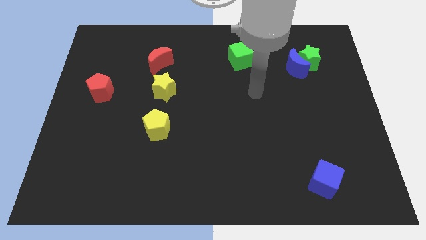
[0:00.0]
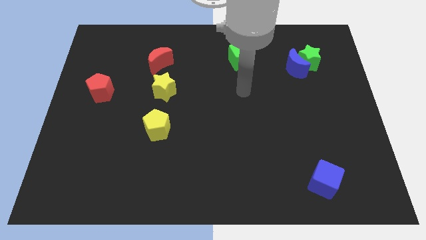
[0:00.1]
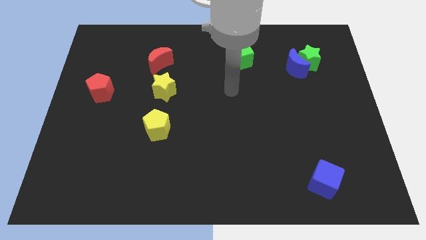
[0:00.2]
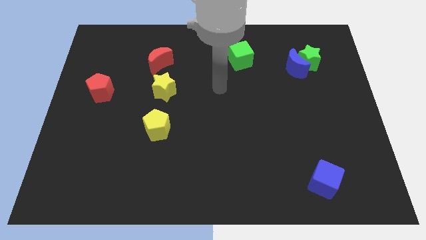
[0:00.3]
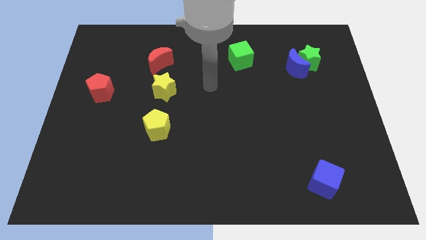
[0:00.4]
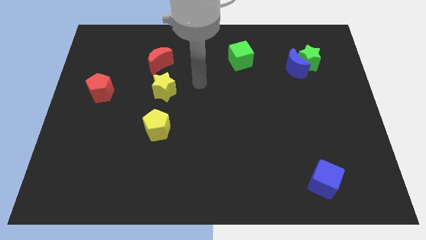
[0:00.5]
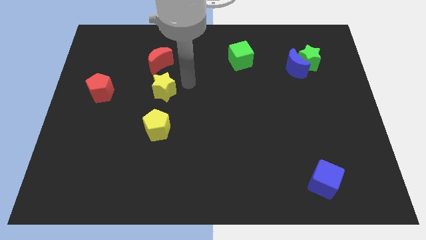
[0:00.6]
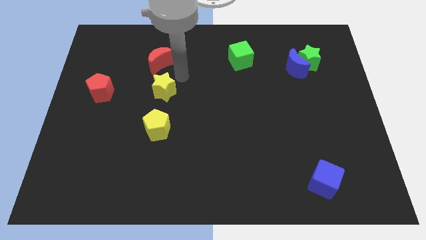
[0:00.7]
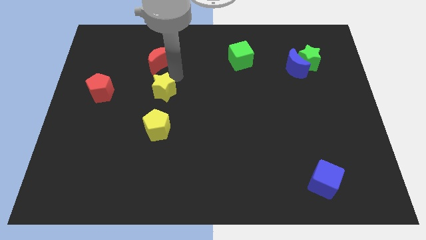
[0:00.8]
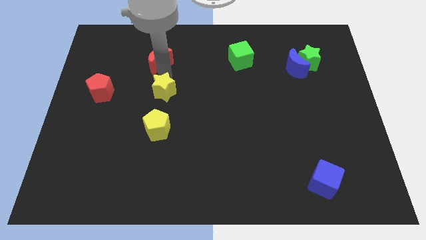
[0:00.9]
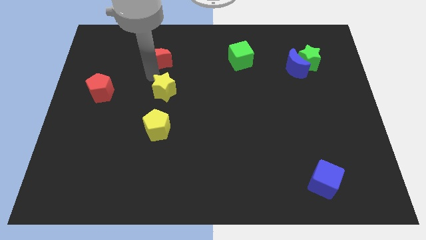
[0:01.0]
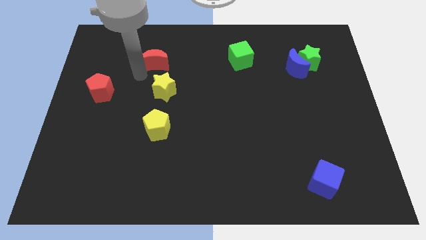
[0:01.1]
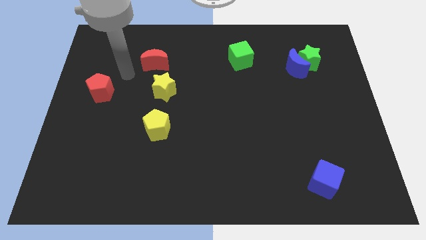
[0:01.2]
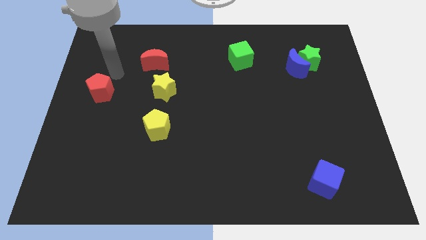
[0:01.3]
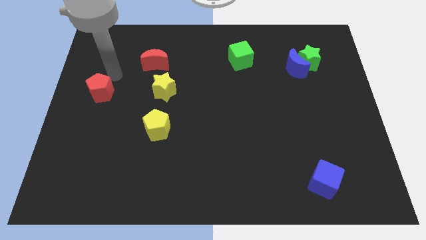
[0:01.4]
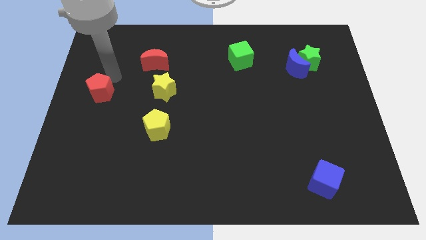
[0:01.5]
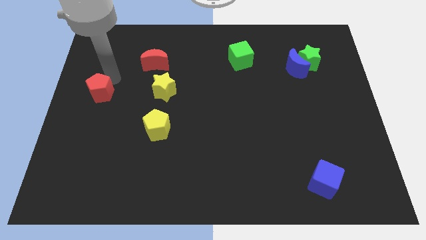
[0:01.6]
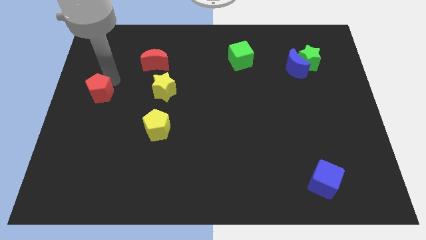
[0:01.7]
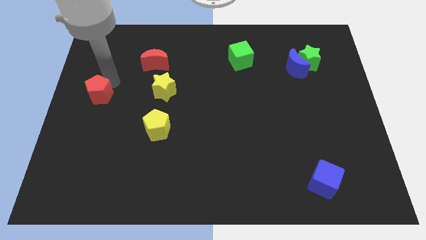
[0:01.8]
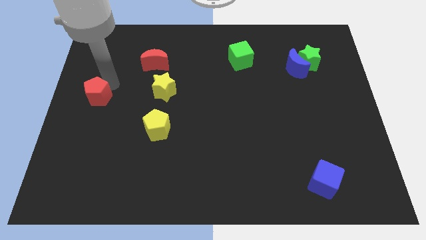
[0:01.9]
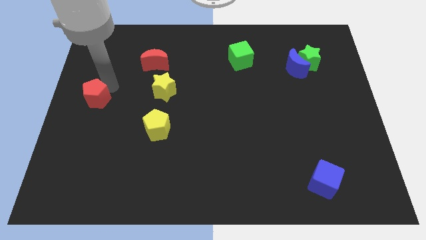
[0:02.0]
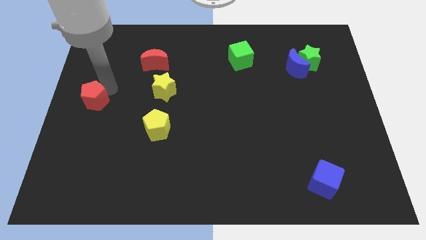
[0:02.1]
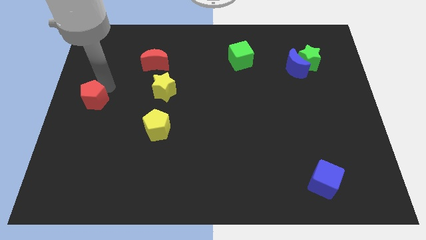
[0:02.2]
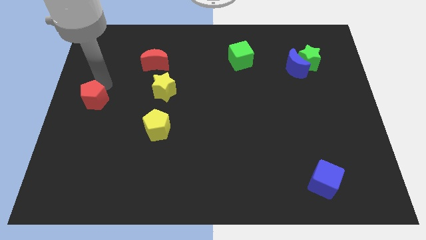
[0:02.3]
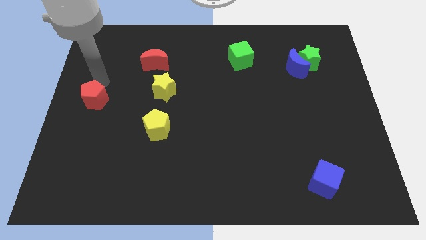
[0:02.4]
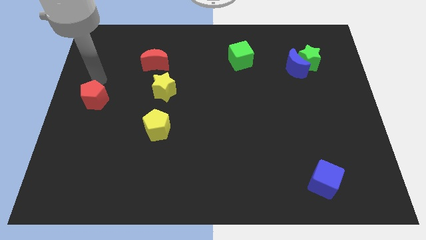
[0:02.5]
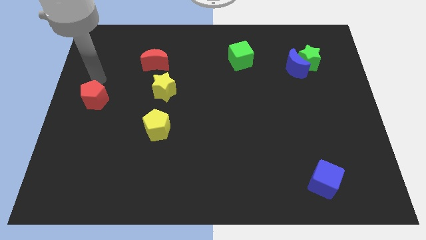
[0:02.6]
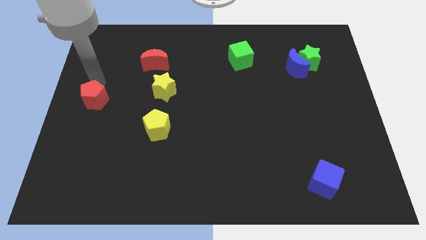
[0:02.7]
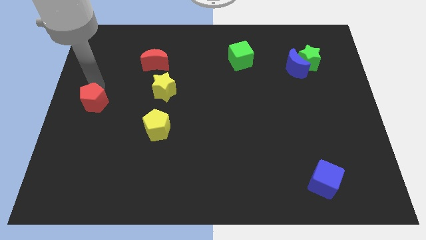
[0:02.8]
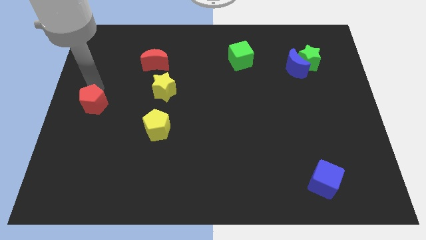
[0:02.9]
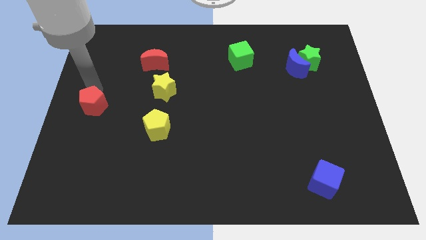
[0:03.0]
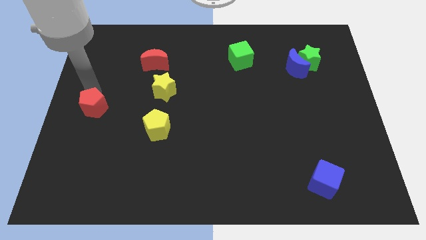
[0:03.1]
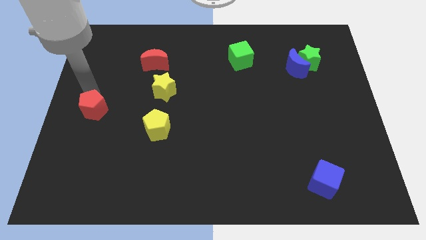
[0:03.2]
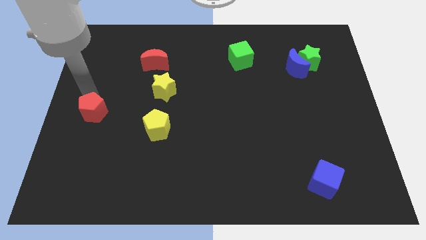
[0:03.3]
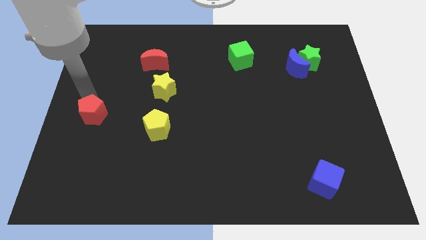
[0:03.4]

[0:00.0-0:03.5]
slightly push the red pentagon downwards

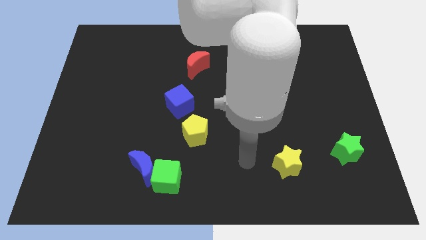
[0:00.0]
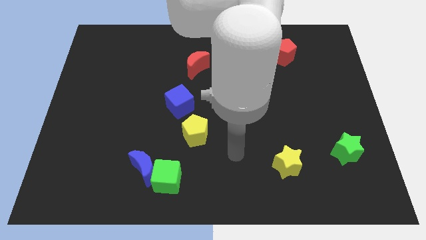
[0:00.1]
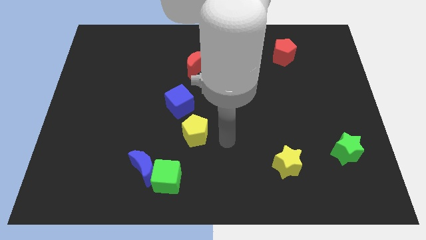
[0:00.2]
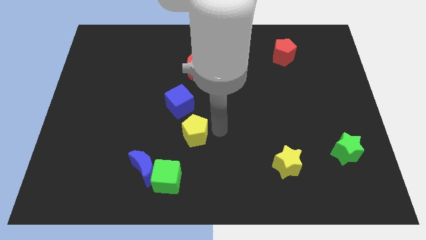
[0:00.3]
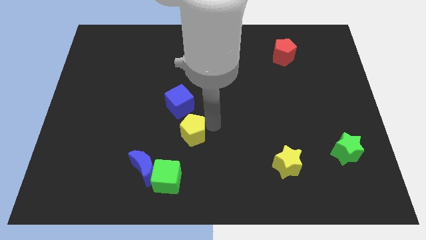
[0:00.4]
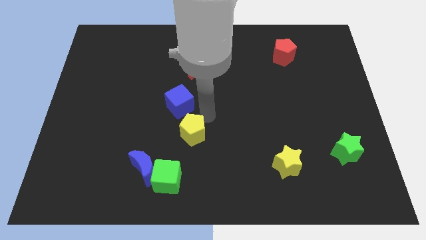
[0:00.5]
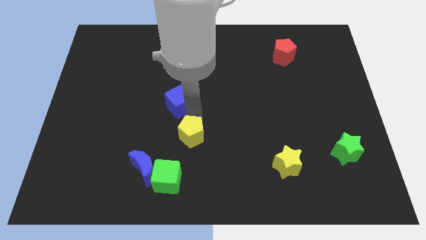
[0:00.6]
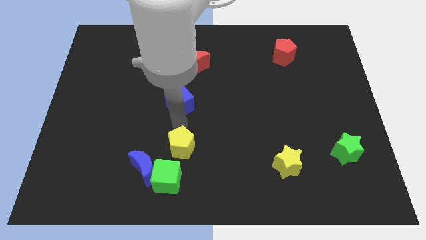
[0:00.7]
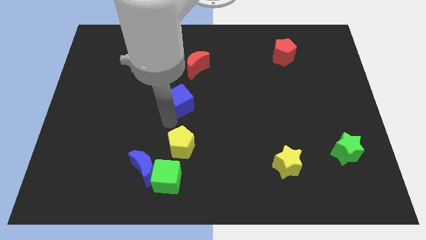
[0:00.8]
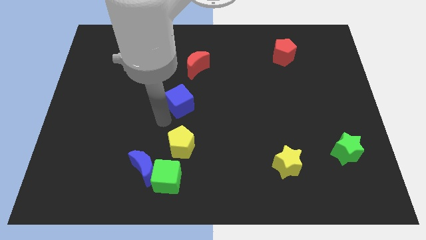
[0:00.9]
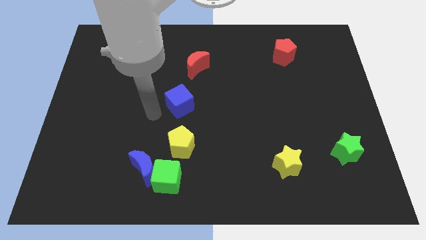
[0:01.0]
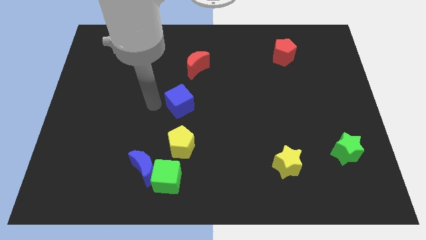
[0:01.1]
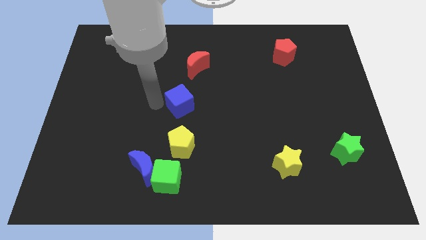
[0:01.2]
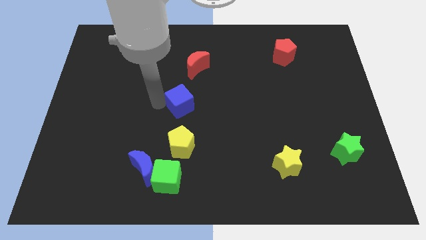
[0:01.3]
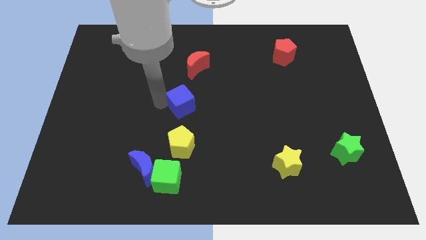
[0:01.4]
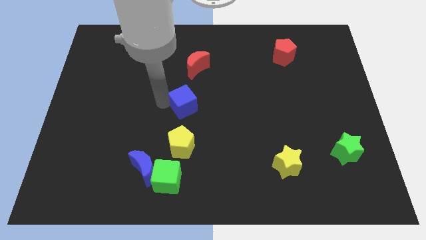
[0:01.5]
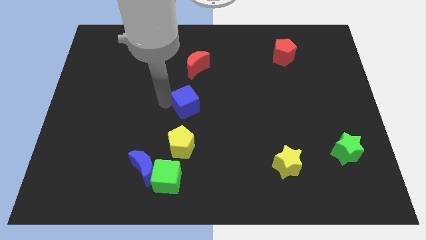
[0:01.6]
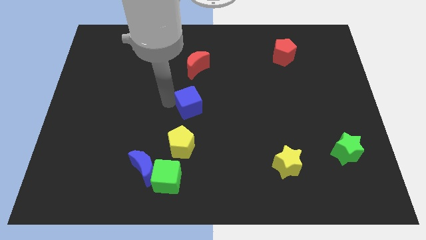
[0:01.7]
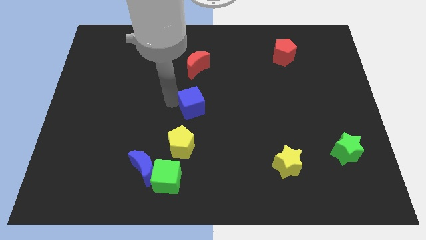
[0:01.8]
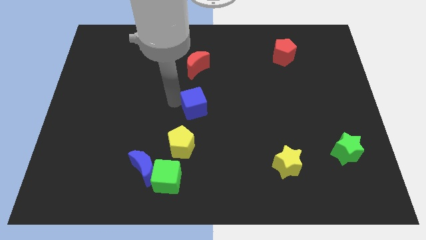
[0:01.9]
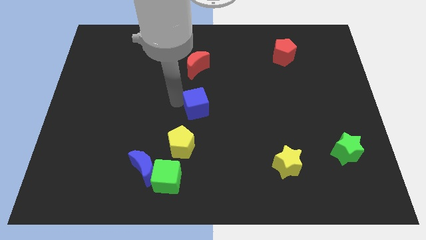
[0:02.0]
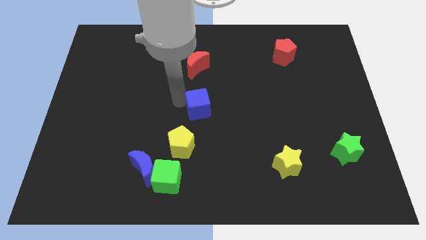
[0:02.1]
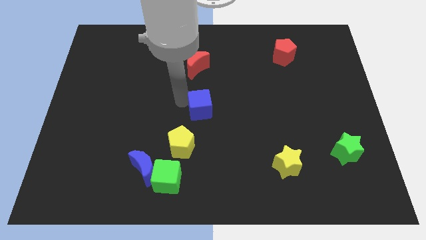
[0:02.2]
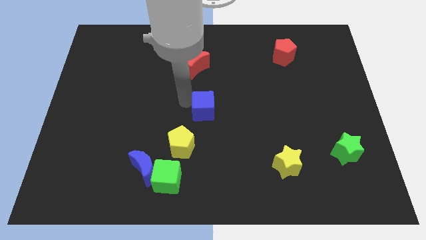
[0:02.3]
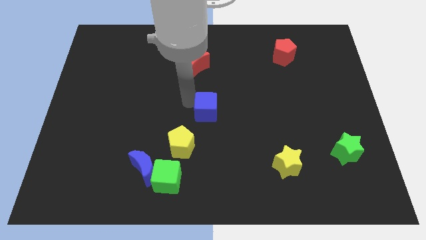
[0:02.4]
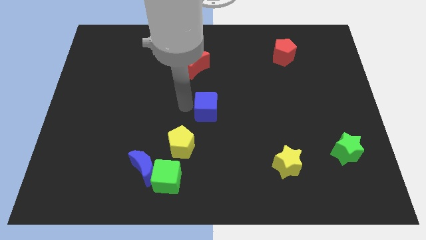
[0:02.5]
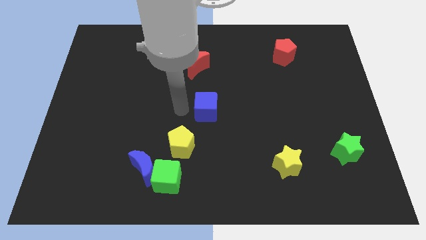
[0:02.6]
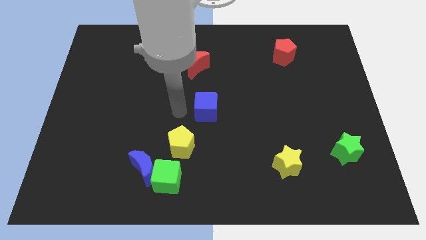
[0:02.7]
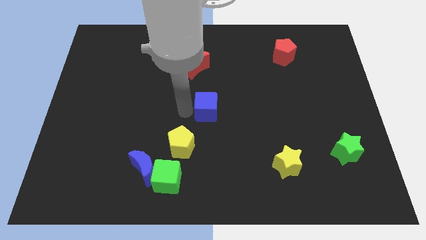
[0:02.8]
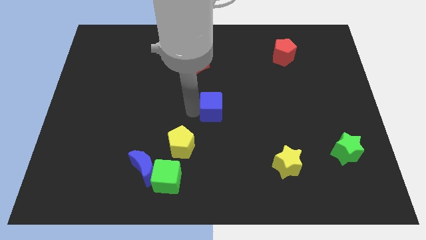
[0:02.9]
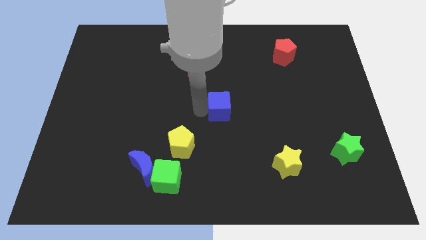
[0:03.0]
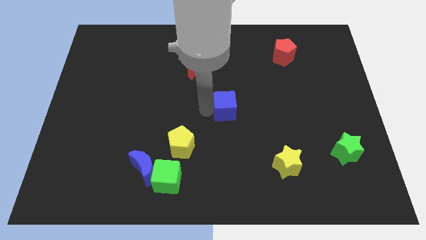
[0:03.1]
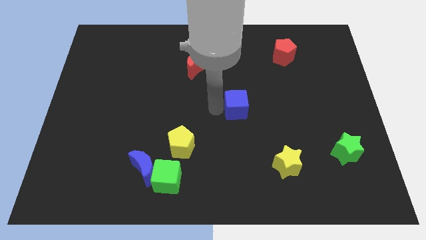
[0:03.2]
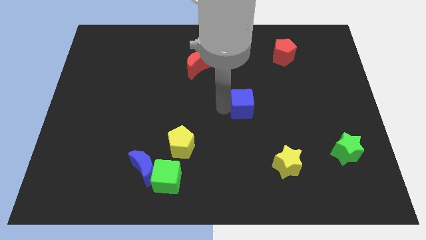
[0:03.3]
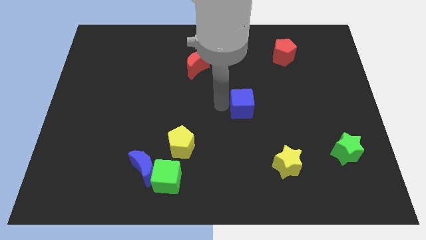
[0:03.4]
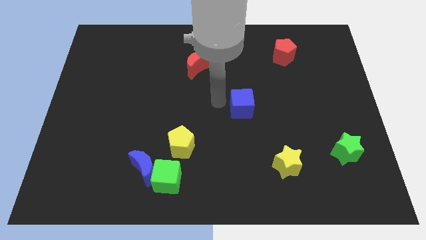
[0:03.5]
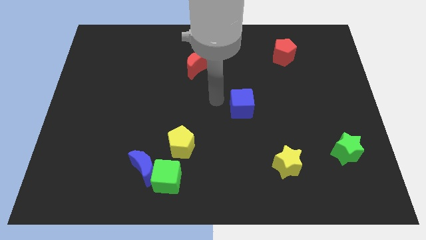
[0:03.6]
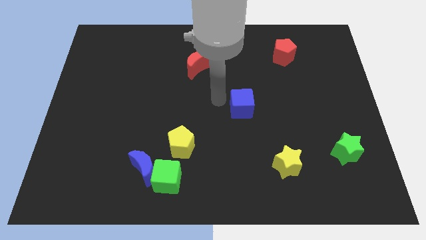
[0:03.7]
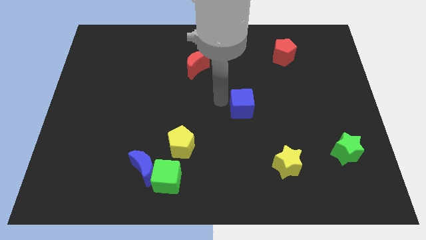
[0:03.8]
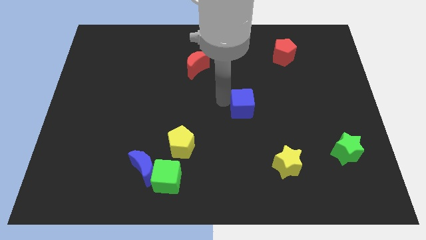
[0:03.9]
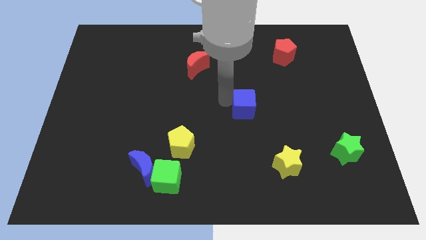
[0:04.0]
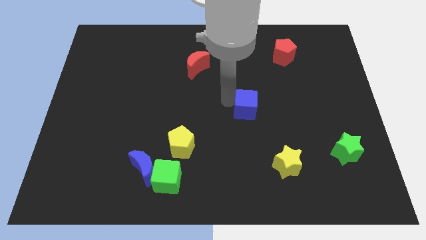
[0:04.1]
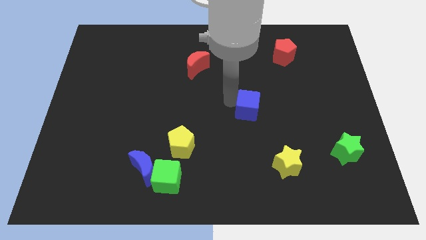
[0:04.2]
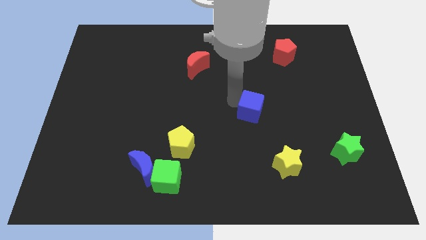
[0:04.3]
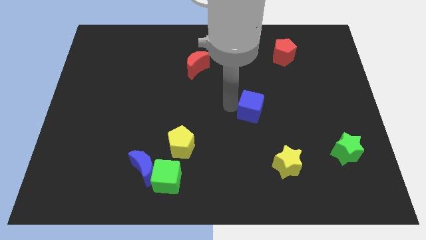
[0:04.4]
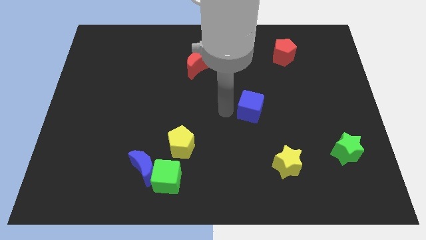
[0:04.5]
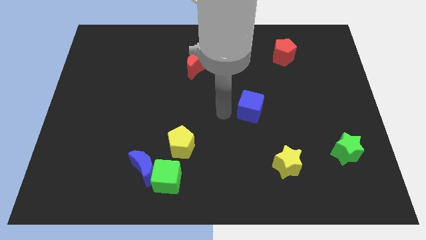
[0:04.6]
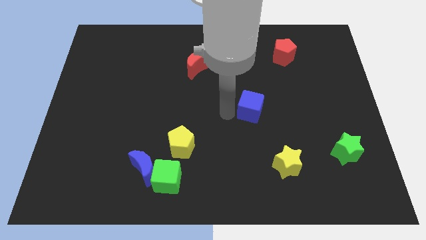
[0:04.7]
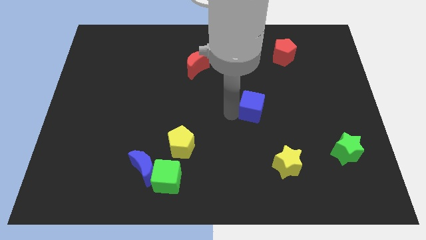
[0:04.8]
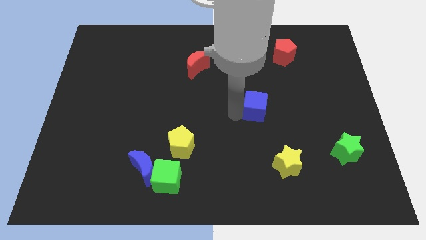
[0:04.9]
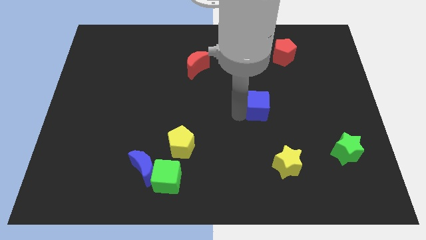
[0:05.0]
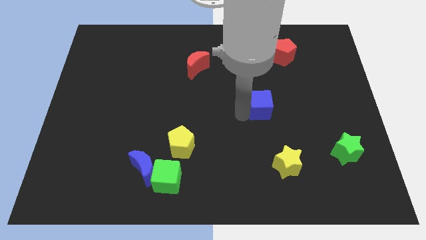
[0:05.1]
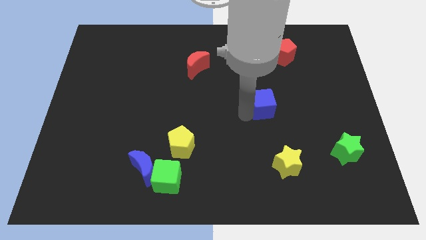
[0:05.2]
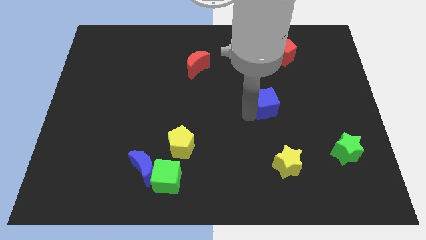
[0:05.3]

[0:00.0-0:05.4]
move the blue cube right
